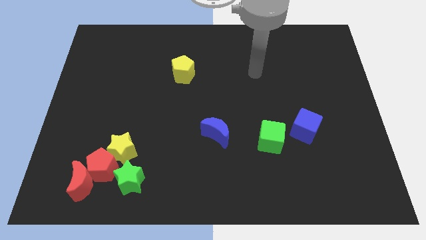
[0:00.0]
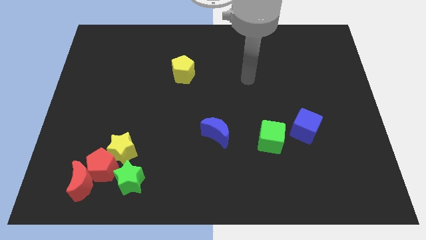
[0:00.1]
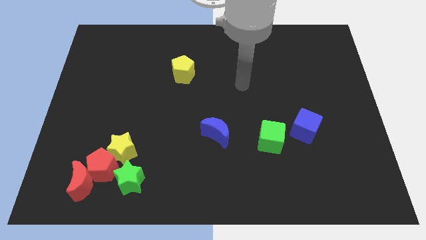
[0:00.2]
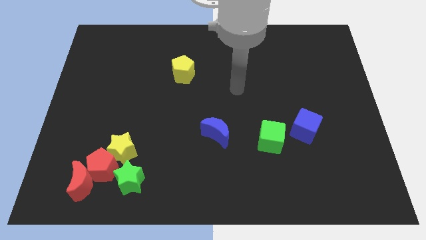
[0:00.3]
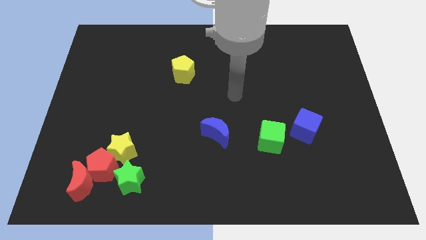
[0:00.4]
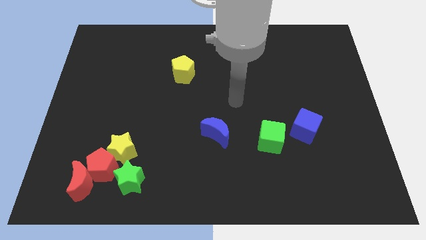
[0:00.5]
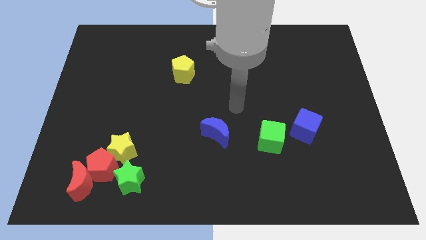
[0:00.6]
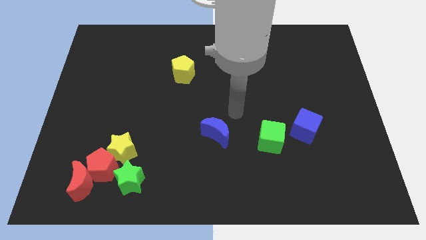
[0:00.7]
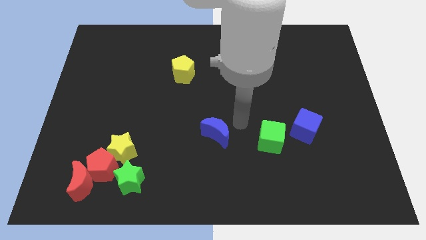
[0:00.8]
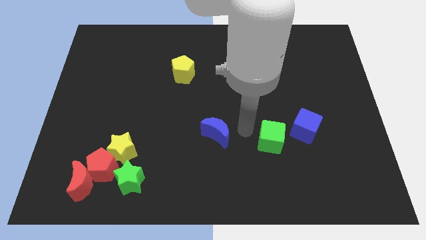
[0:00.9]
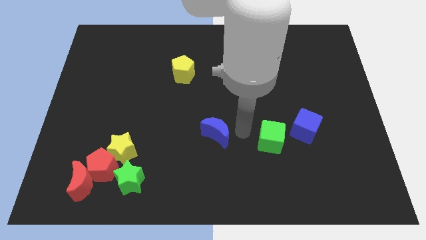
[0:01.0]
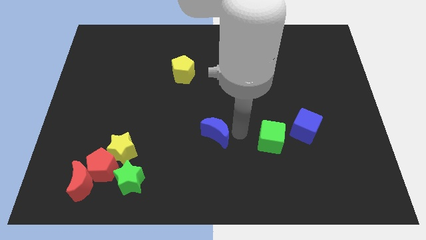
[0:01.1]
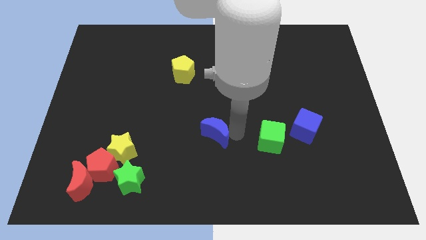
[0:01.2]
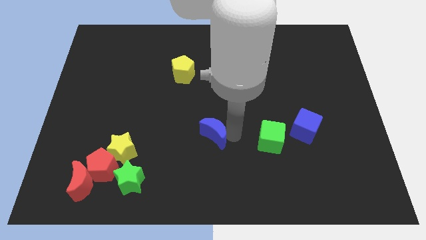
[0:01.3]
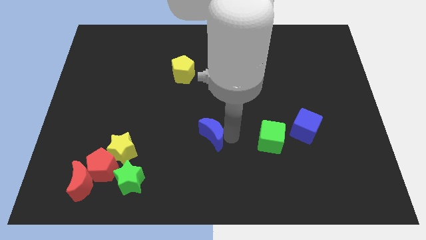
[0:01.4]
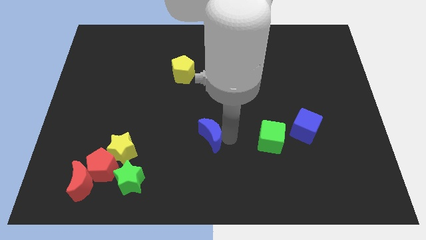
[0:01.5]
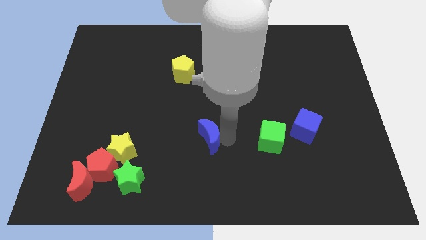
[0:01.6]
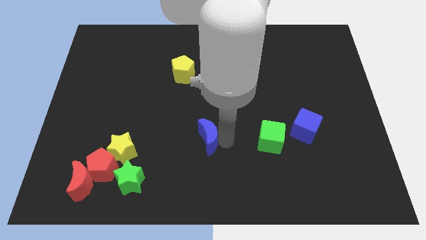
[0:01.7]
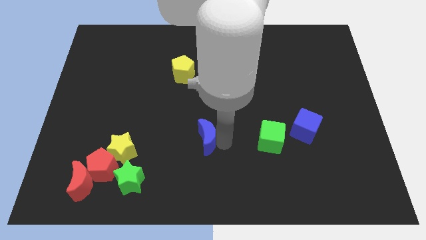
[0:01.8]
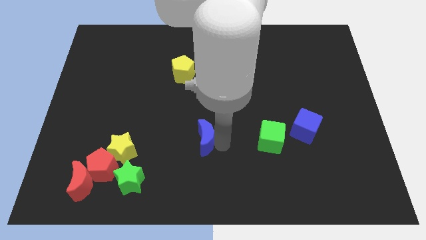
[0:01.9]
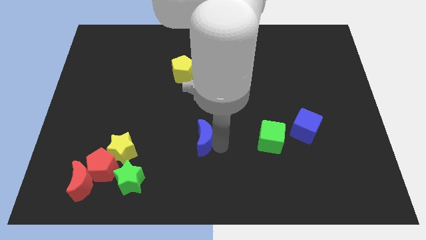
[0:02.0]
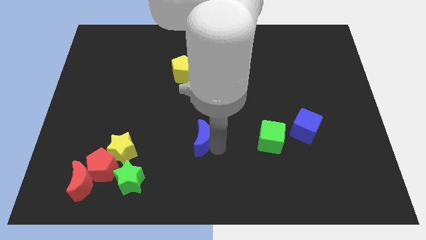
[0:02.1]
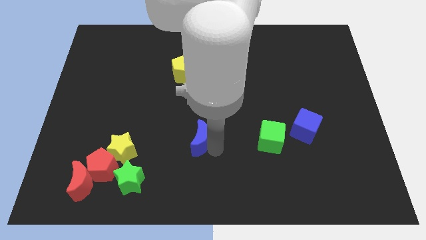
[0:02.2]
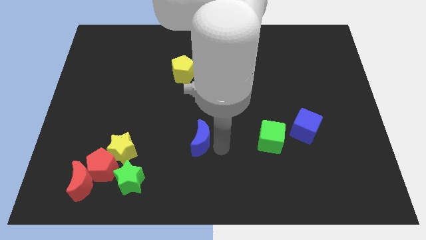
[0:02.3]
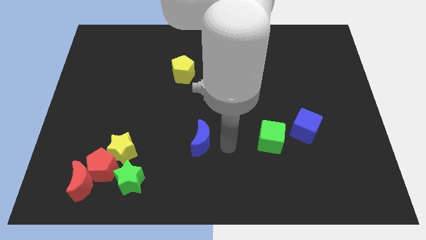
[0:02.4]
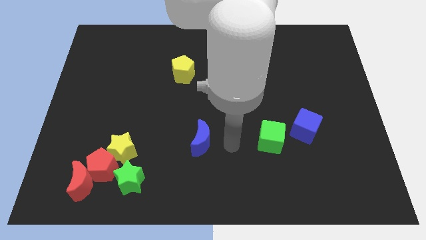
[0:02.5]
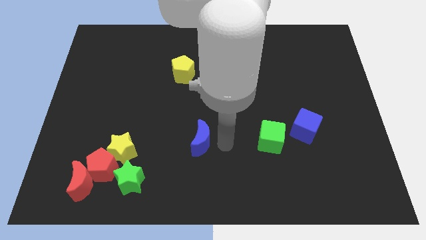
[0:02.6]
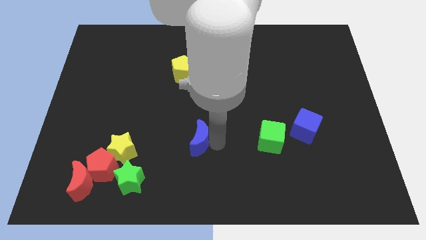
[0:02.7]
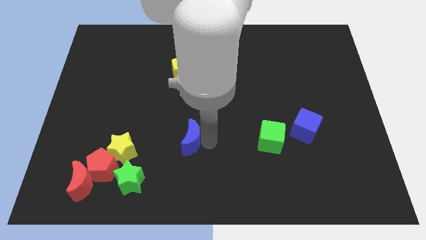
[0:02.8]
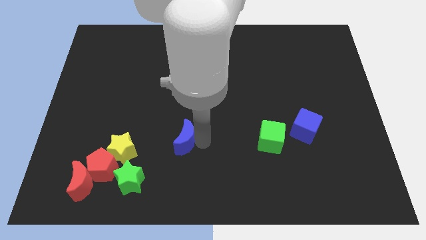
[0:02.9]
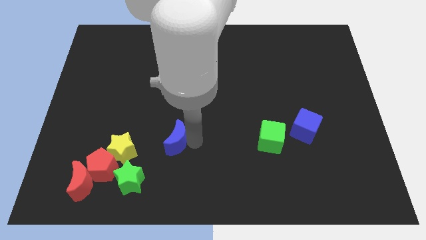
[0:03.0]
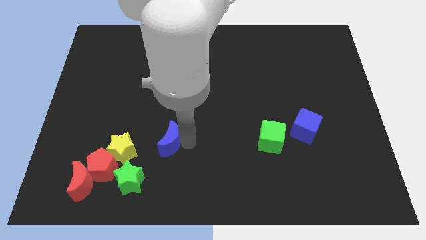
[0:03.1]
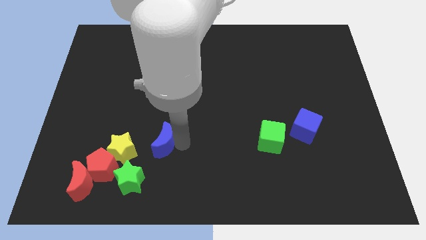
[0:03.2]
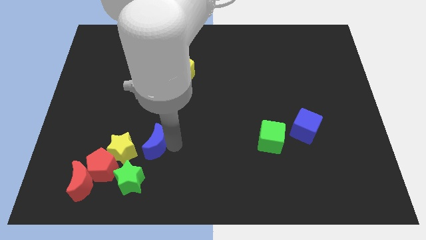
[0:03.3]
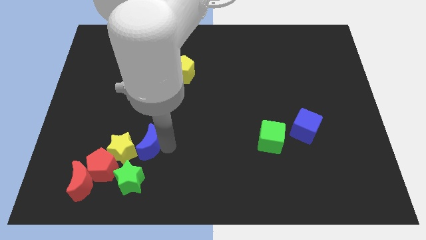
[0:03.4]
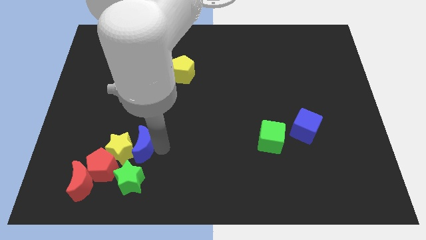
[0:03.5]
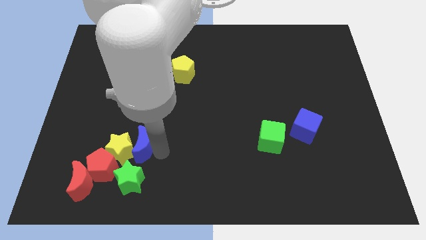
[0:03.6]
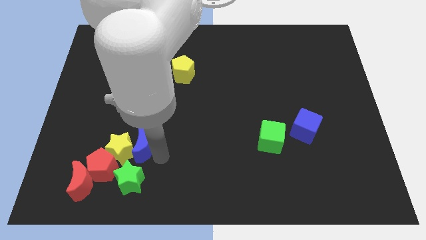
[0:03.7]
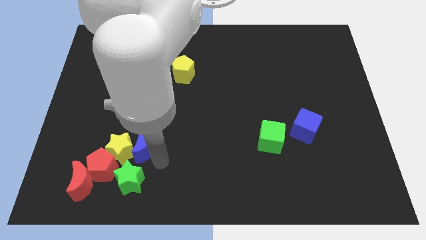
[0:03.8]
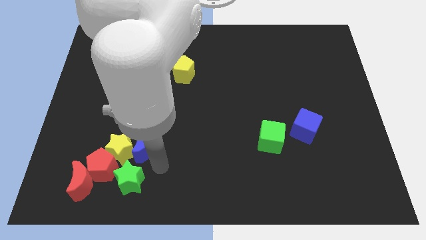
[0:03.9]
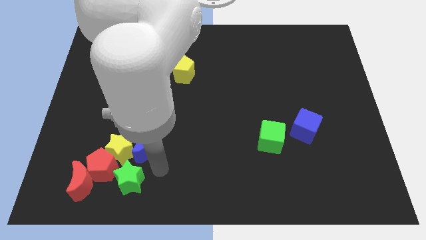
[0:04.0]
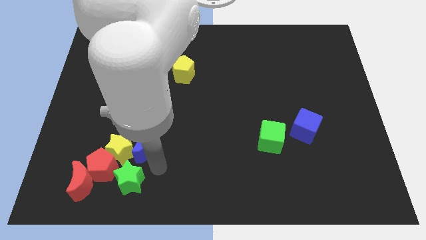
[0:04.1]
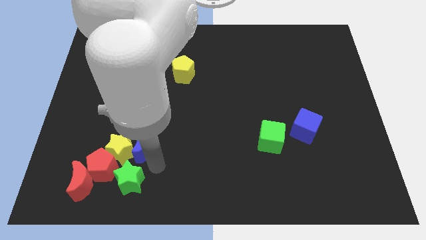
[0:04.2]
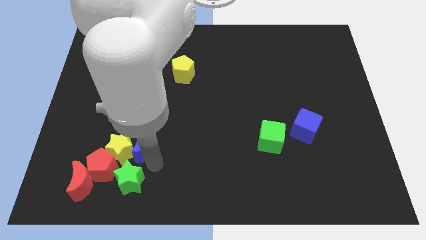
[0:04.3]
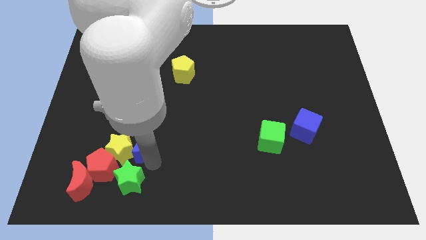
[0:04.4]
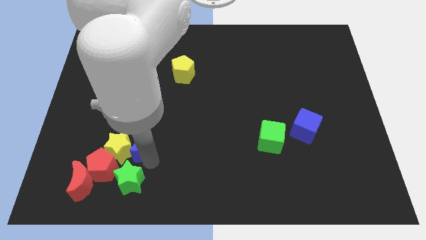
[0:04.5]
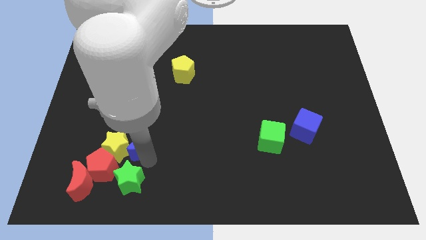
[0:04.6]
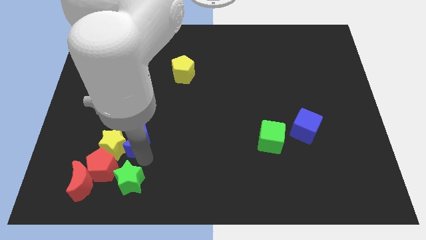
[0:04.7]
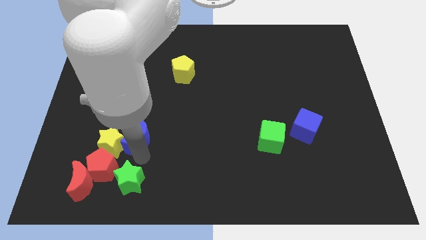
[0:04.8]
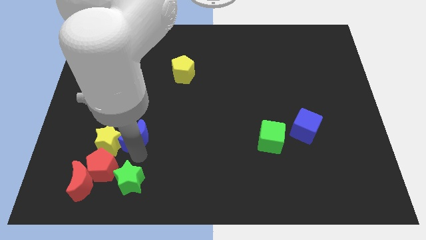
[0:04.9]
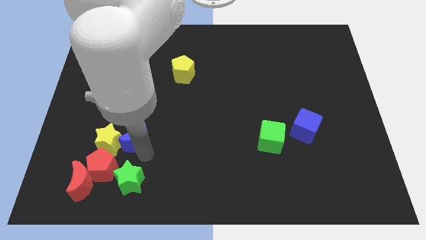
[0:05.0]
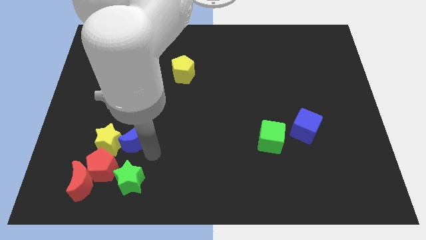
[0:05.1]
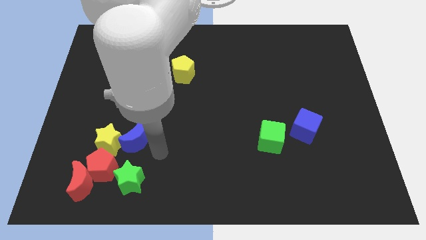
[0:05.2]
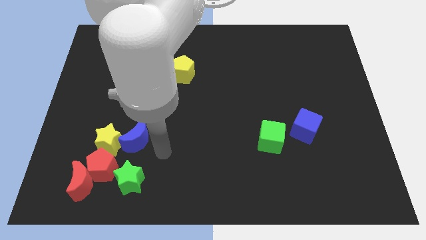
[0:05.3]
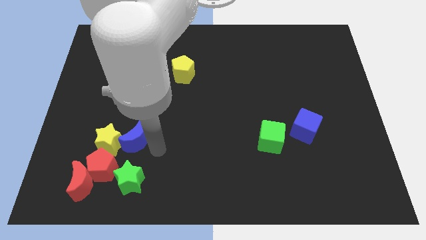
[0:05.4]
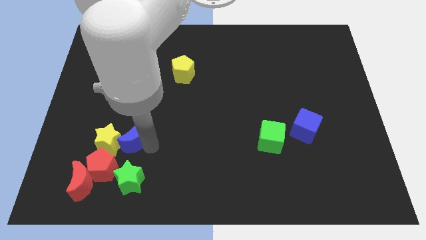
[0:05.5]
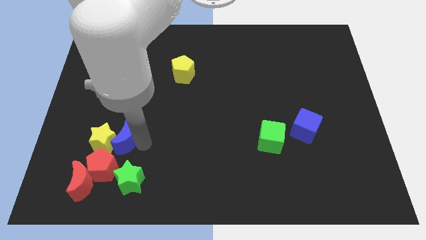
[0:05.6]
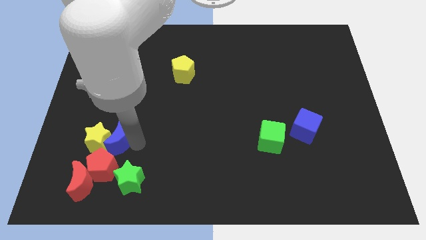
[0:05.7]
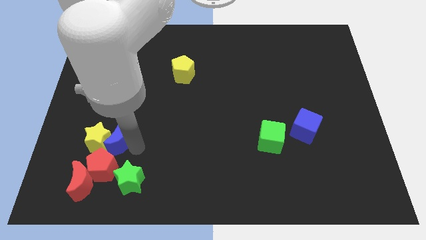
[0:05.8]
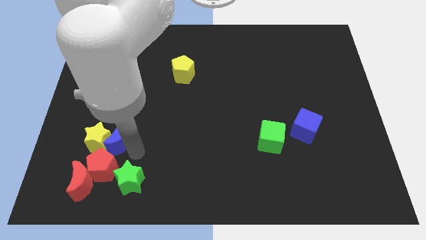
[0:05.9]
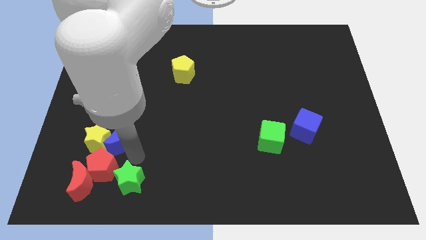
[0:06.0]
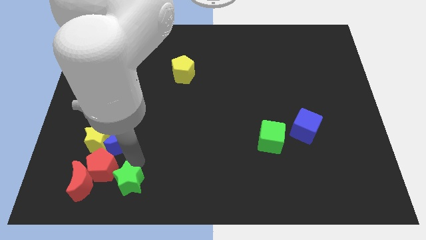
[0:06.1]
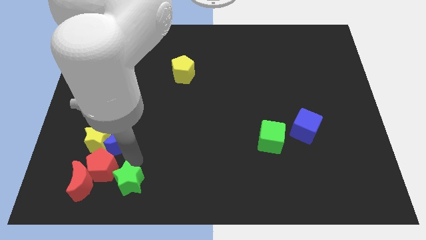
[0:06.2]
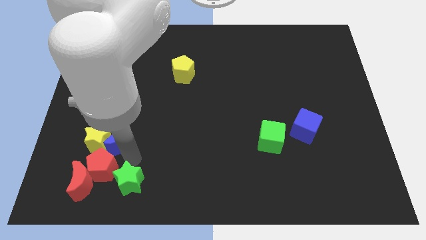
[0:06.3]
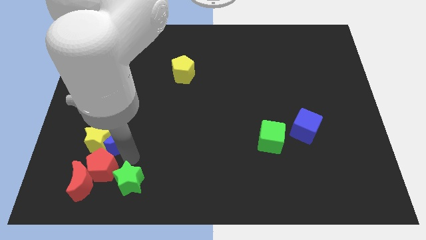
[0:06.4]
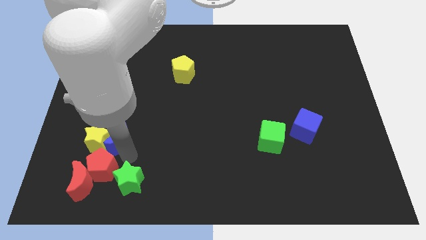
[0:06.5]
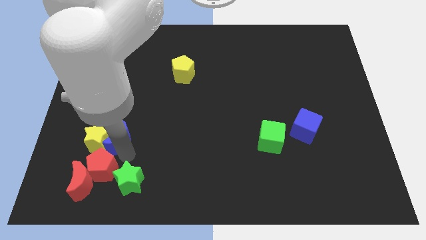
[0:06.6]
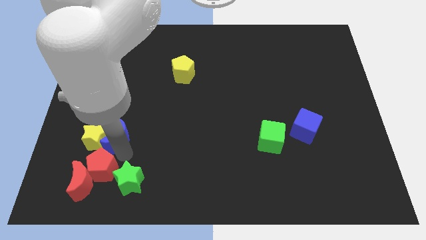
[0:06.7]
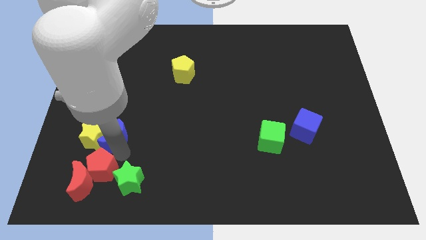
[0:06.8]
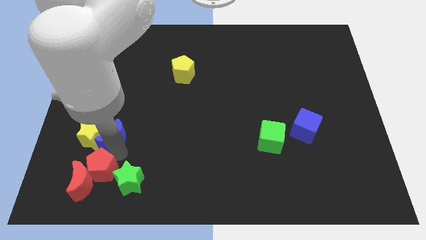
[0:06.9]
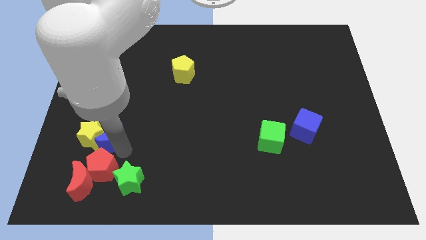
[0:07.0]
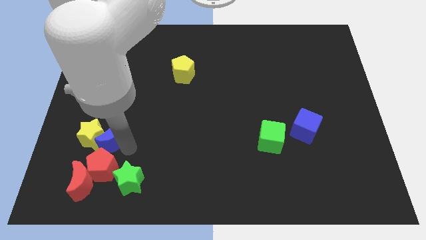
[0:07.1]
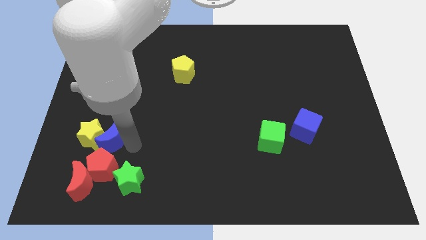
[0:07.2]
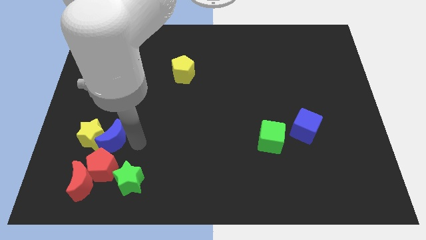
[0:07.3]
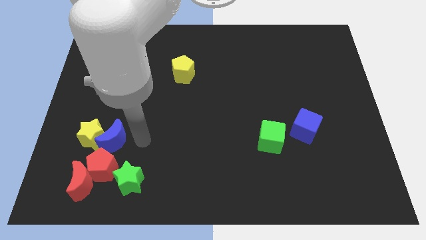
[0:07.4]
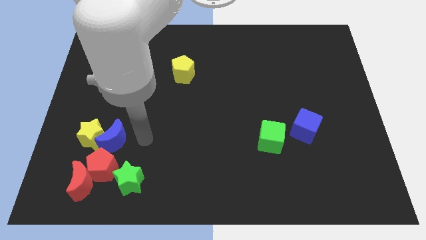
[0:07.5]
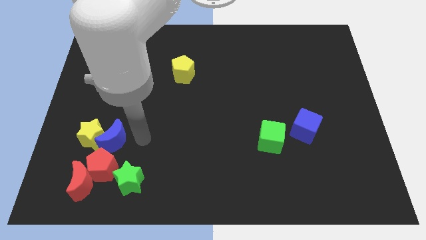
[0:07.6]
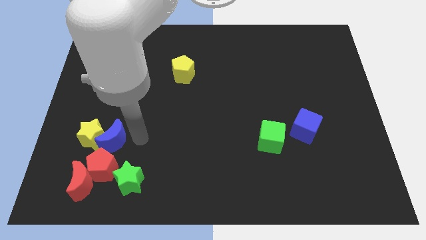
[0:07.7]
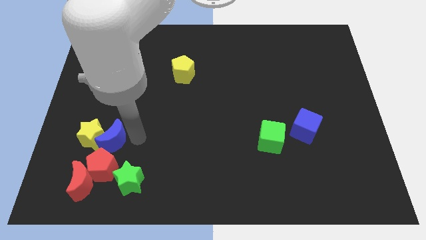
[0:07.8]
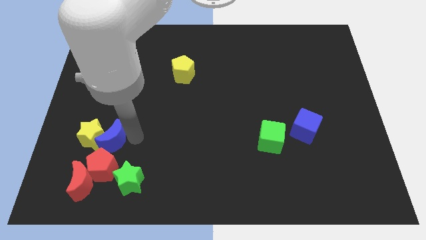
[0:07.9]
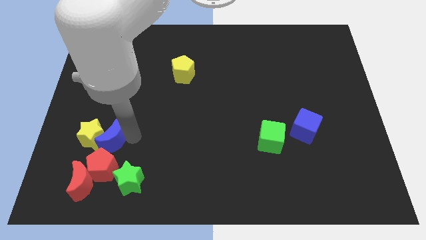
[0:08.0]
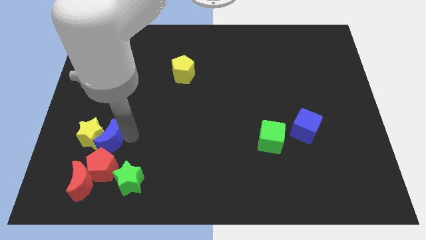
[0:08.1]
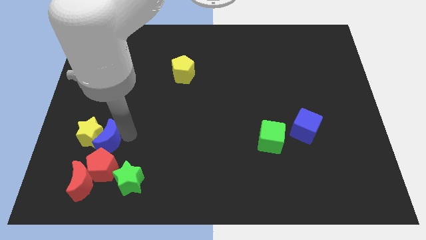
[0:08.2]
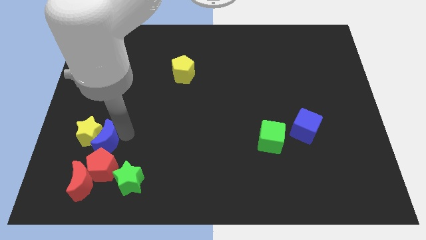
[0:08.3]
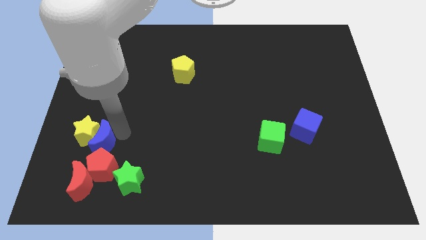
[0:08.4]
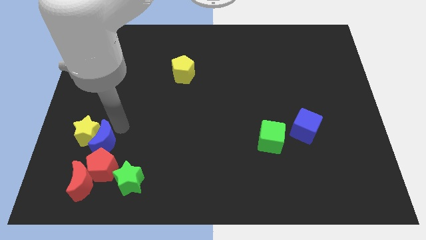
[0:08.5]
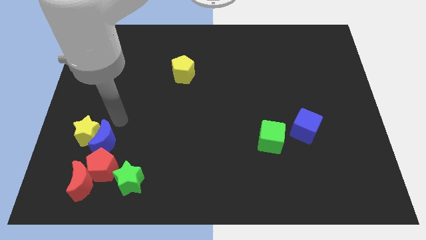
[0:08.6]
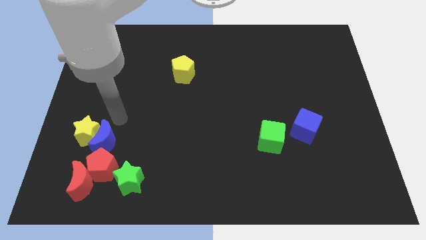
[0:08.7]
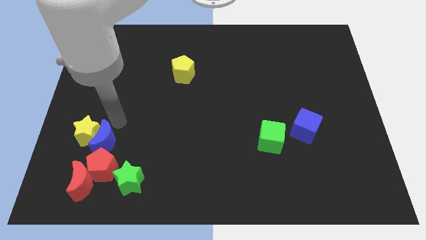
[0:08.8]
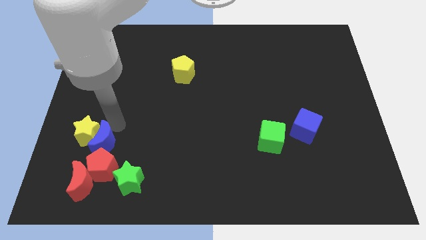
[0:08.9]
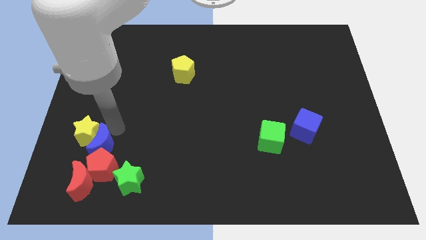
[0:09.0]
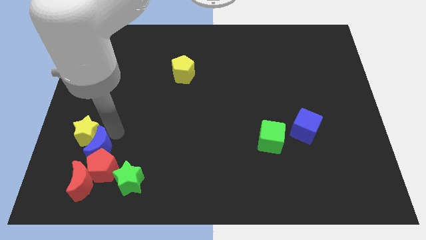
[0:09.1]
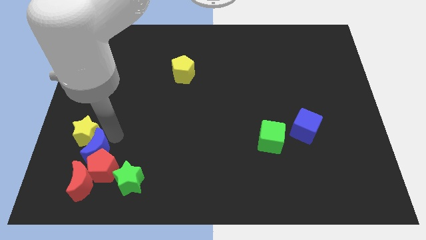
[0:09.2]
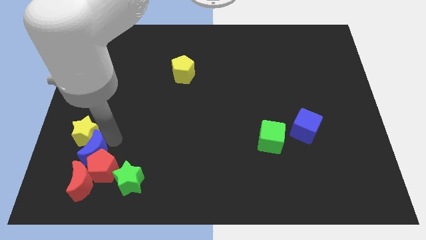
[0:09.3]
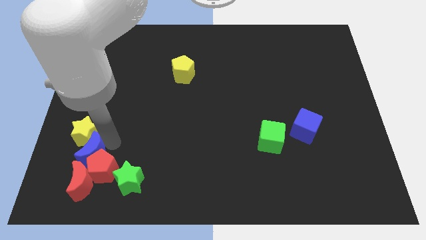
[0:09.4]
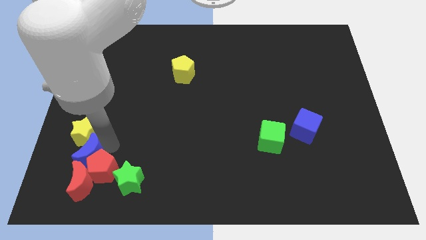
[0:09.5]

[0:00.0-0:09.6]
put the blue moon towards the red moon
